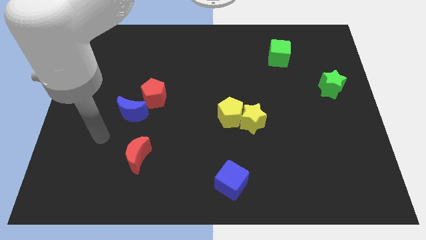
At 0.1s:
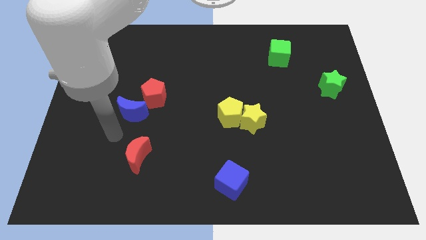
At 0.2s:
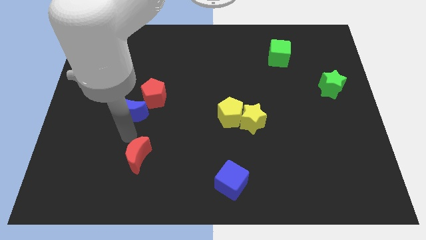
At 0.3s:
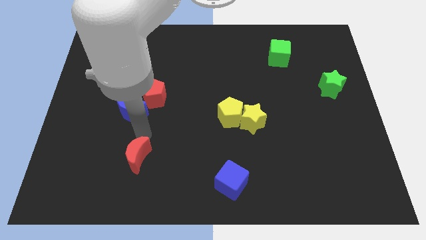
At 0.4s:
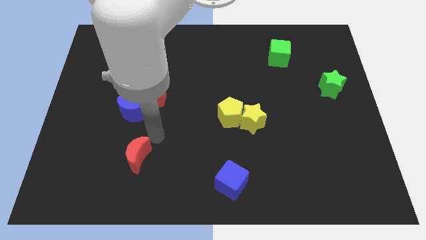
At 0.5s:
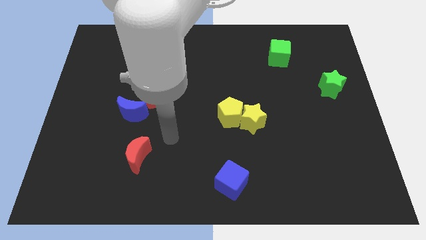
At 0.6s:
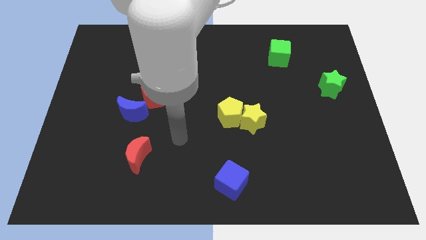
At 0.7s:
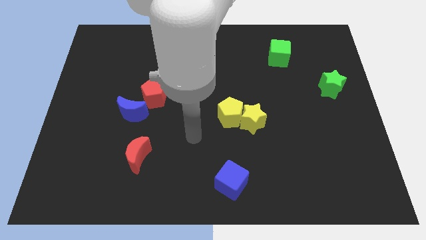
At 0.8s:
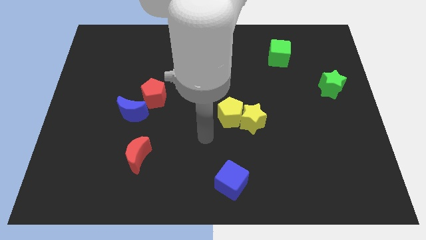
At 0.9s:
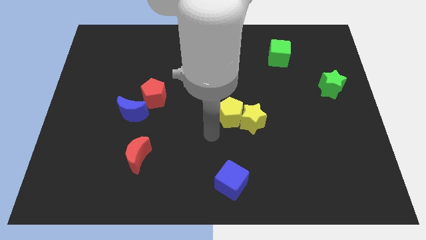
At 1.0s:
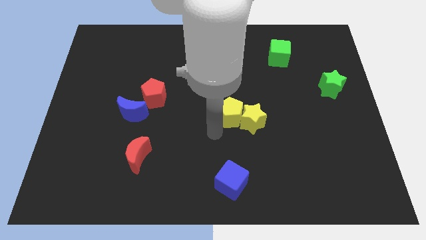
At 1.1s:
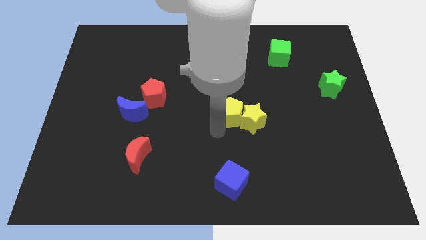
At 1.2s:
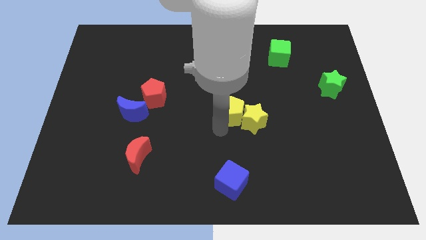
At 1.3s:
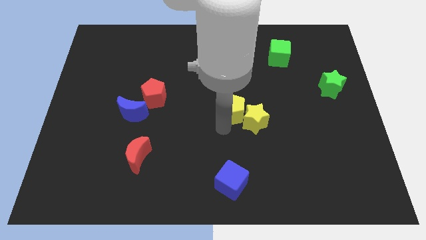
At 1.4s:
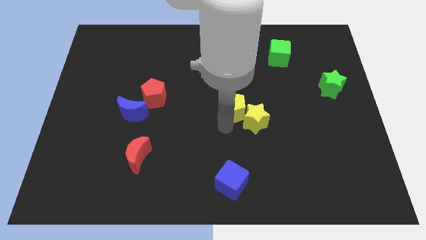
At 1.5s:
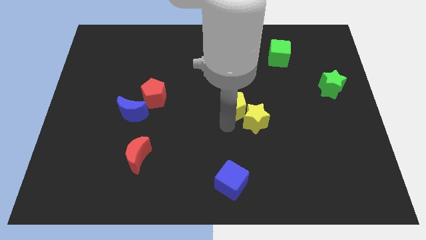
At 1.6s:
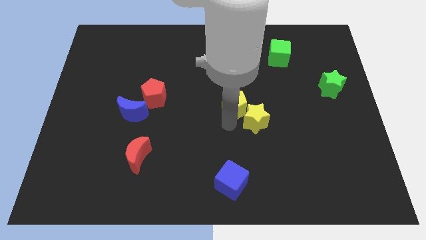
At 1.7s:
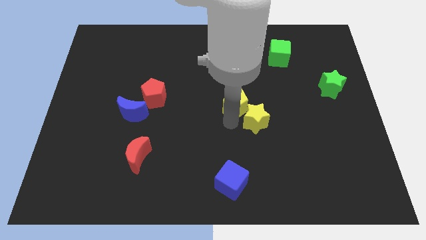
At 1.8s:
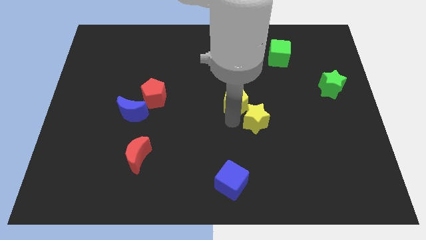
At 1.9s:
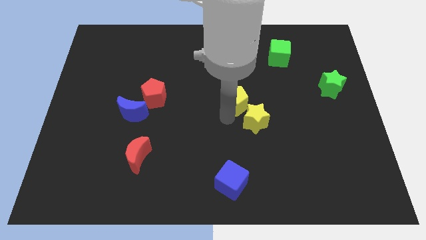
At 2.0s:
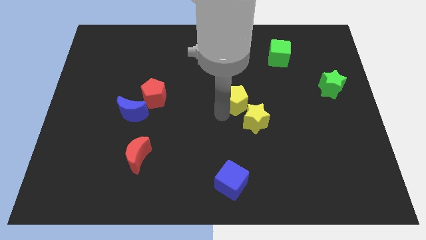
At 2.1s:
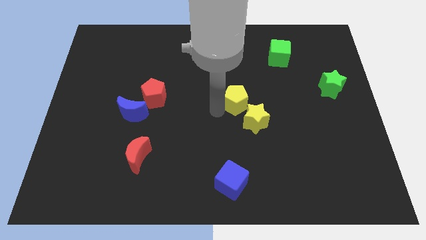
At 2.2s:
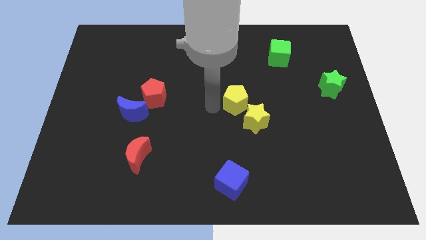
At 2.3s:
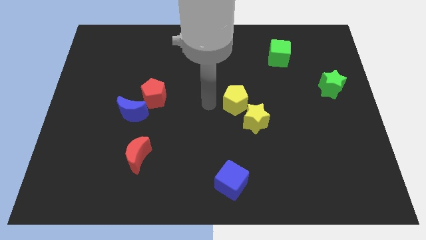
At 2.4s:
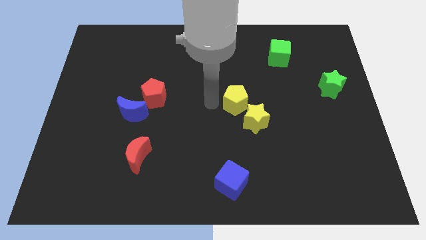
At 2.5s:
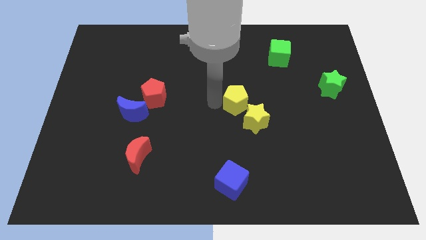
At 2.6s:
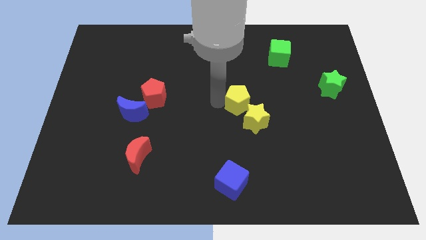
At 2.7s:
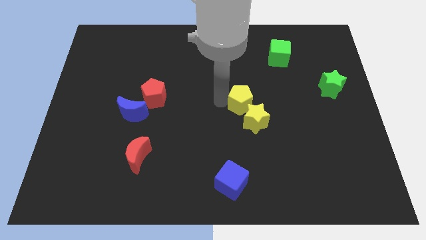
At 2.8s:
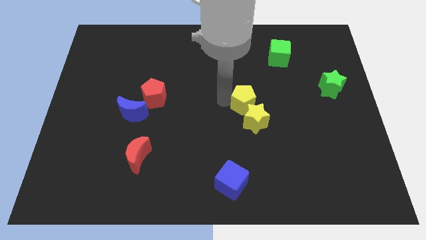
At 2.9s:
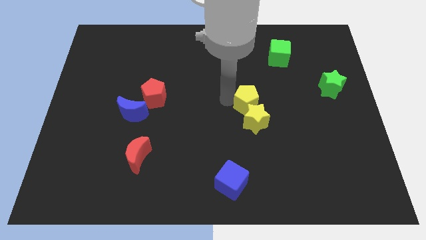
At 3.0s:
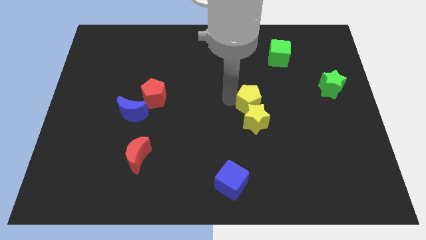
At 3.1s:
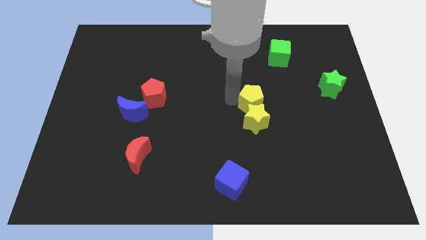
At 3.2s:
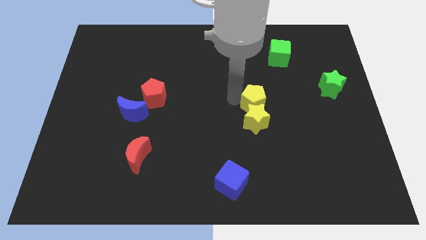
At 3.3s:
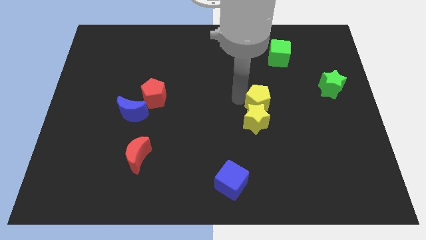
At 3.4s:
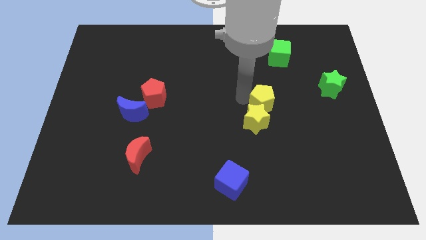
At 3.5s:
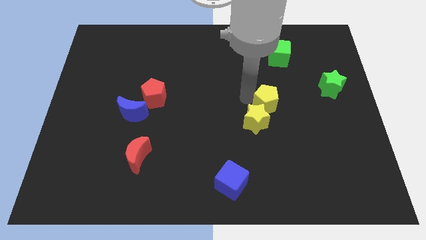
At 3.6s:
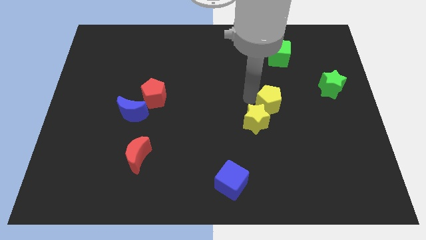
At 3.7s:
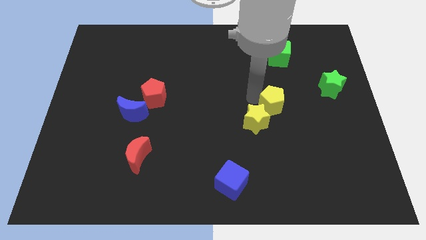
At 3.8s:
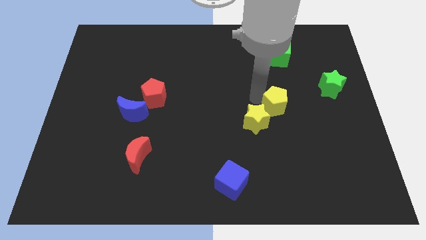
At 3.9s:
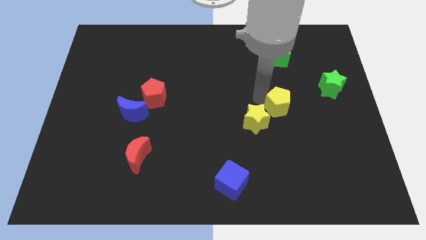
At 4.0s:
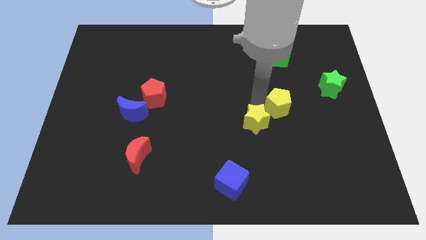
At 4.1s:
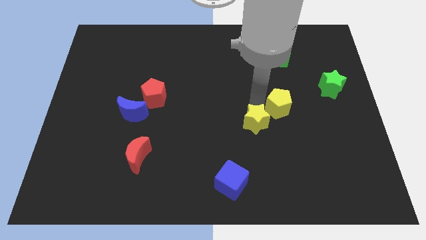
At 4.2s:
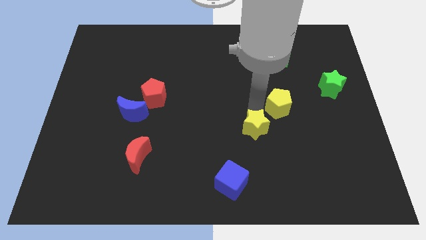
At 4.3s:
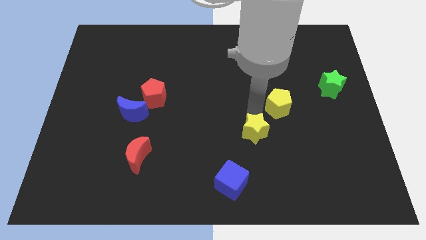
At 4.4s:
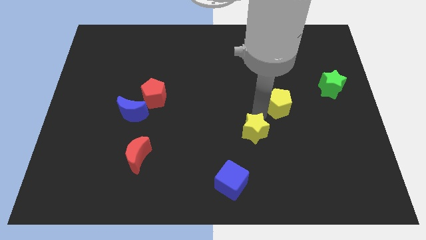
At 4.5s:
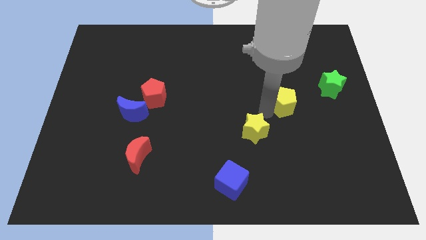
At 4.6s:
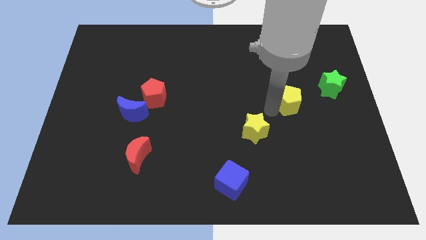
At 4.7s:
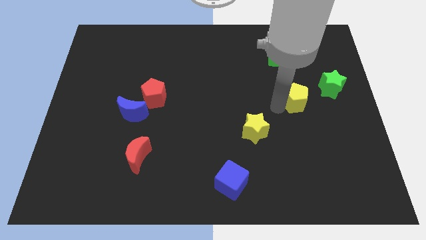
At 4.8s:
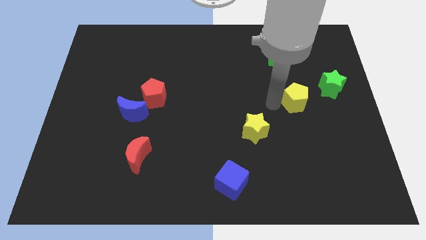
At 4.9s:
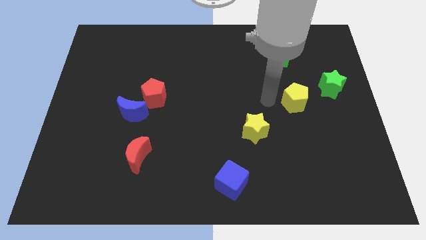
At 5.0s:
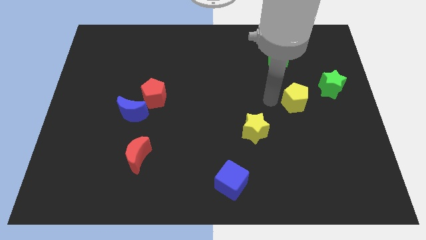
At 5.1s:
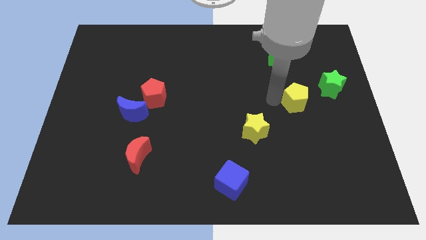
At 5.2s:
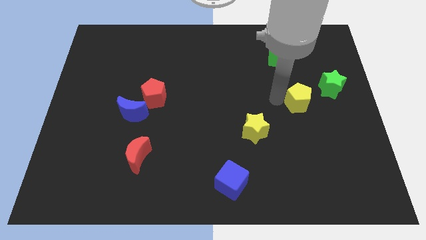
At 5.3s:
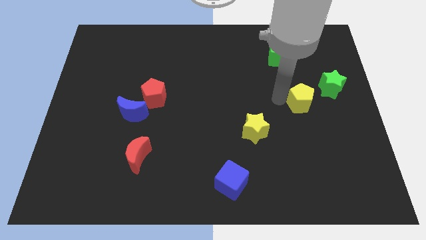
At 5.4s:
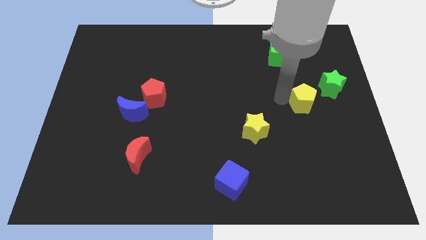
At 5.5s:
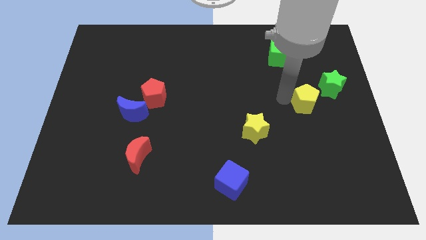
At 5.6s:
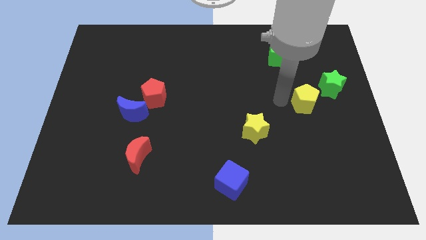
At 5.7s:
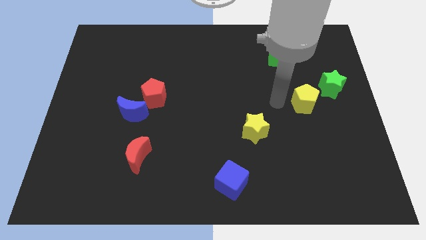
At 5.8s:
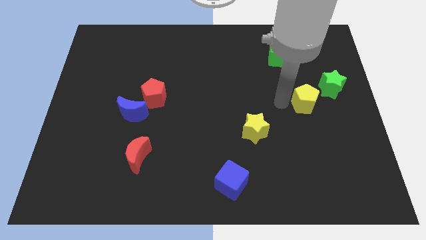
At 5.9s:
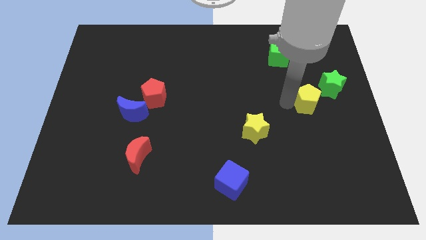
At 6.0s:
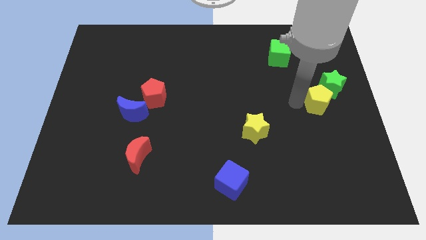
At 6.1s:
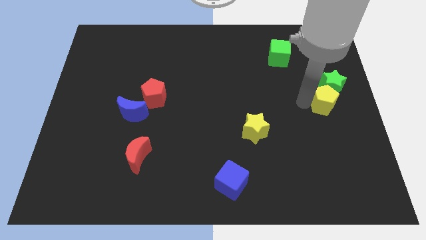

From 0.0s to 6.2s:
slide the yellow pentagon to the right side of the board

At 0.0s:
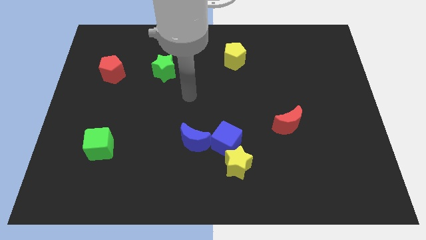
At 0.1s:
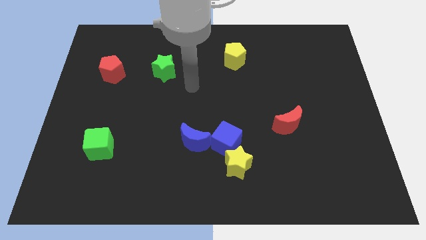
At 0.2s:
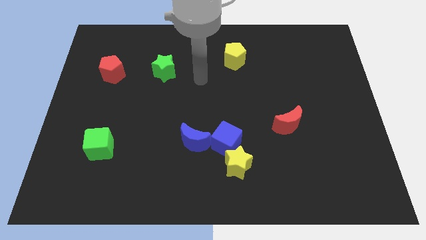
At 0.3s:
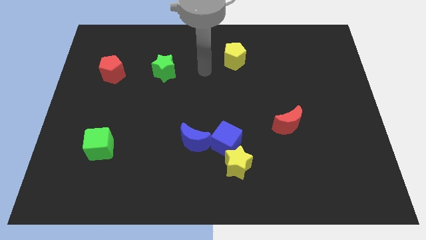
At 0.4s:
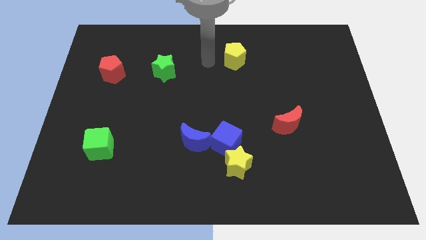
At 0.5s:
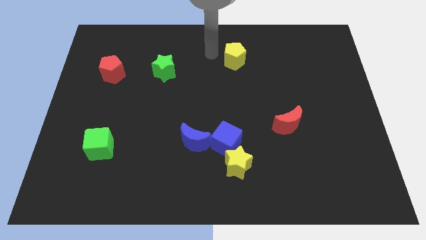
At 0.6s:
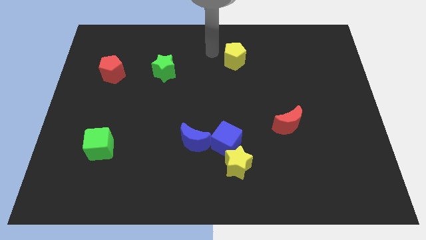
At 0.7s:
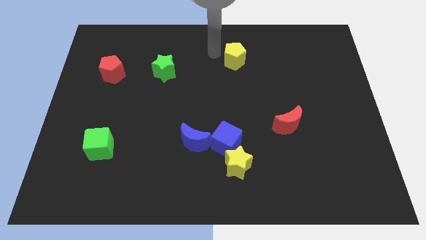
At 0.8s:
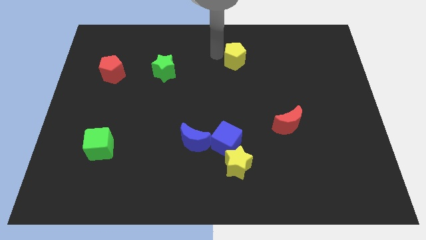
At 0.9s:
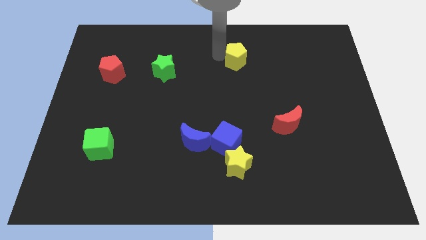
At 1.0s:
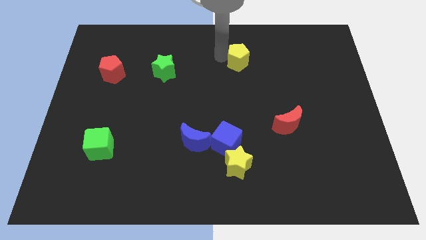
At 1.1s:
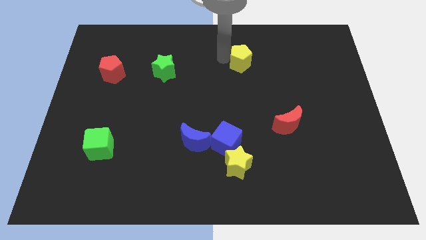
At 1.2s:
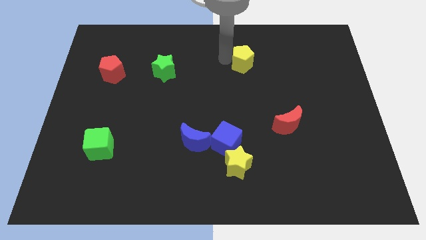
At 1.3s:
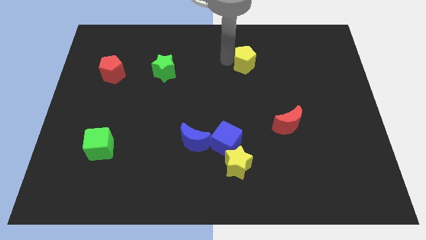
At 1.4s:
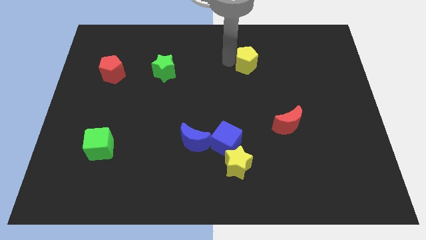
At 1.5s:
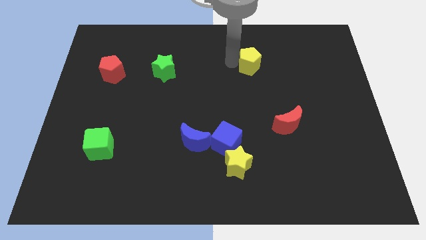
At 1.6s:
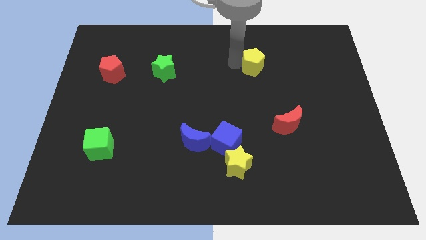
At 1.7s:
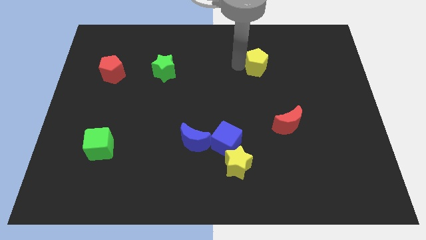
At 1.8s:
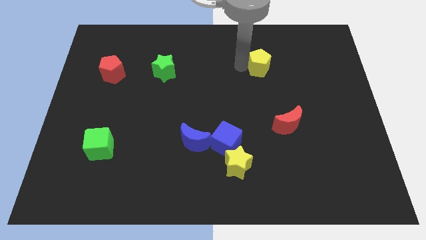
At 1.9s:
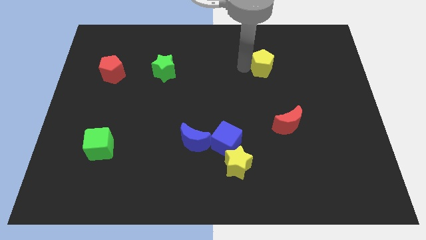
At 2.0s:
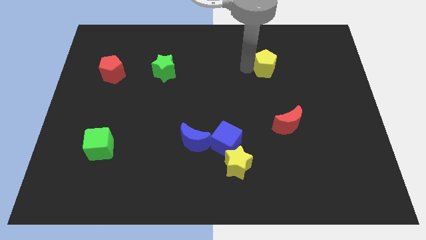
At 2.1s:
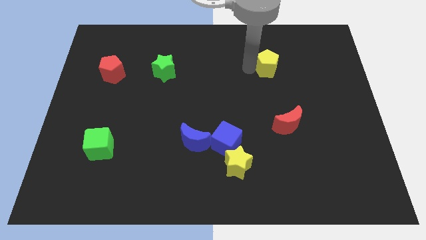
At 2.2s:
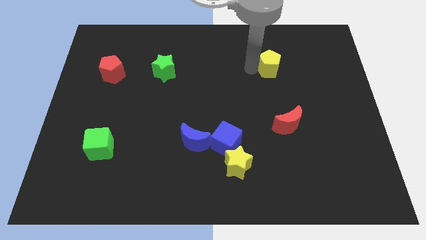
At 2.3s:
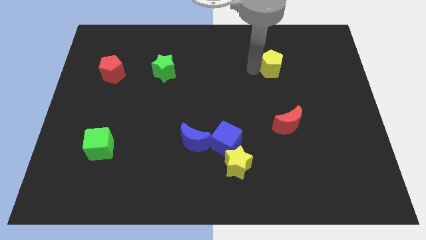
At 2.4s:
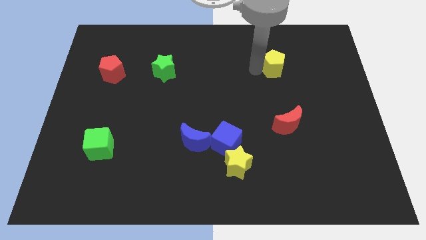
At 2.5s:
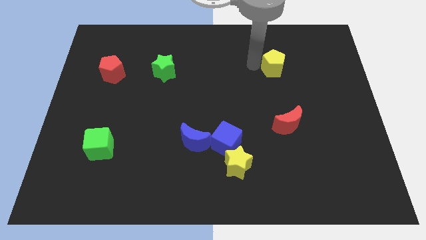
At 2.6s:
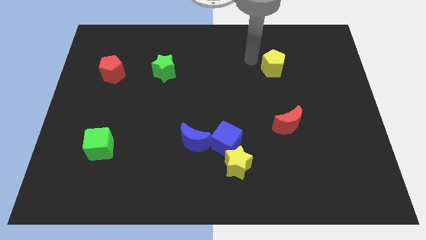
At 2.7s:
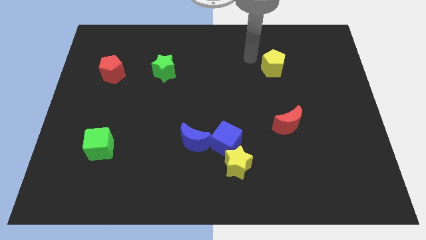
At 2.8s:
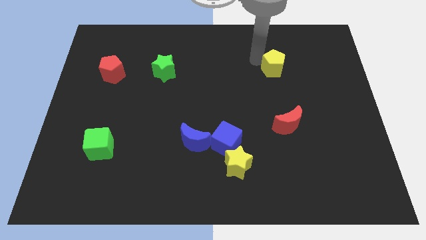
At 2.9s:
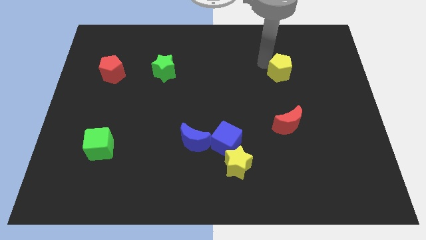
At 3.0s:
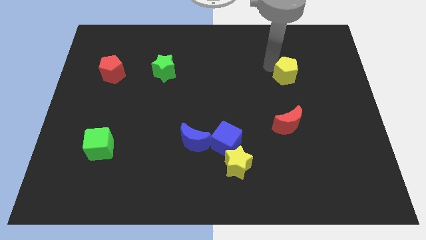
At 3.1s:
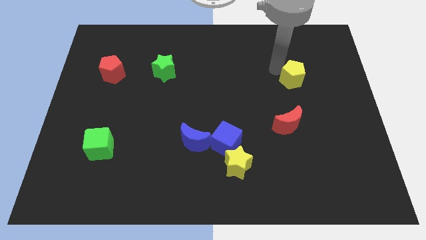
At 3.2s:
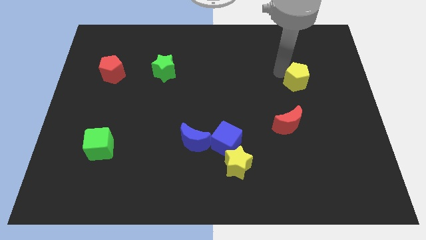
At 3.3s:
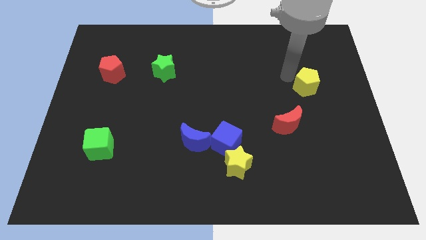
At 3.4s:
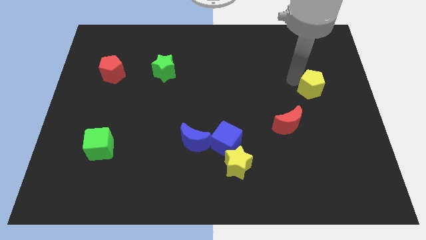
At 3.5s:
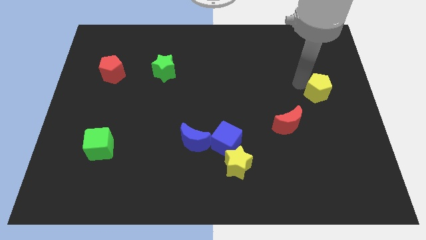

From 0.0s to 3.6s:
move the yellow pentagon to the right side of the board
